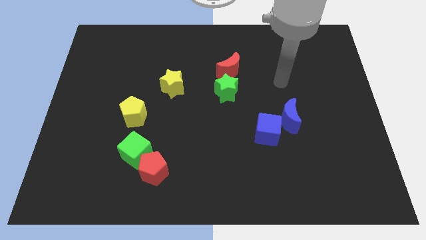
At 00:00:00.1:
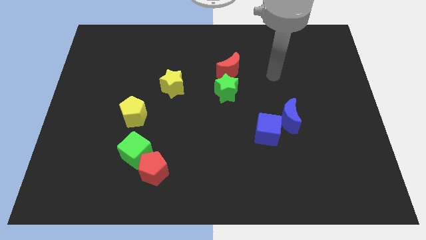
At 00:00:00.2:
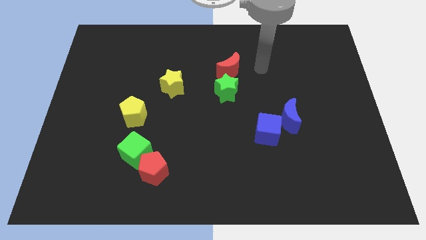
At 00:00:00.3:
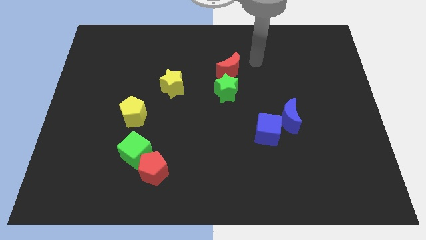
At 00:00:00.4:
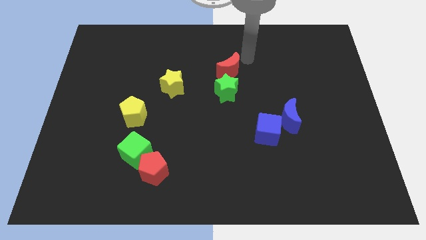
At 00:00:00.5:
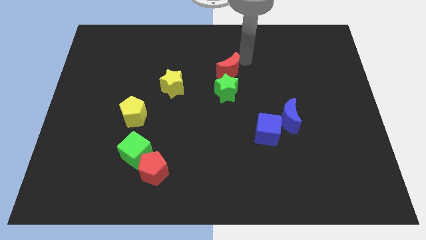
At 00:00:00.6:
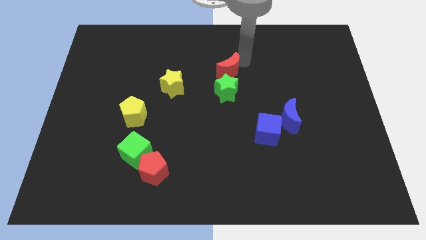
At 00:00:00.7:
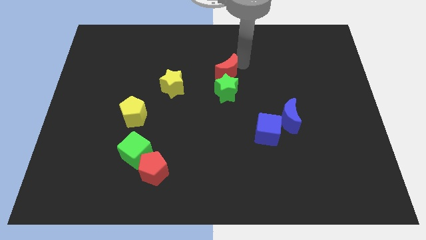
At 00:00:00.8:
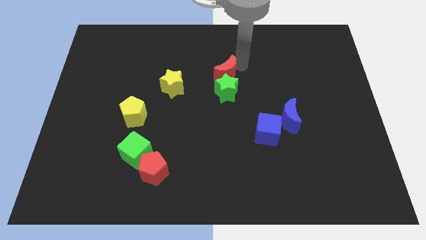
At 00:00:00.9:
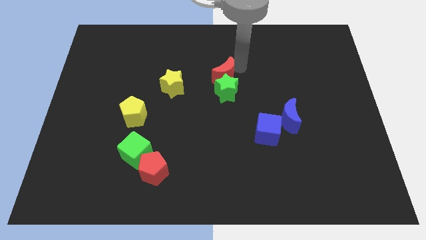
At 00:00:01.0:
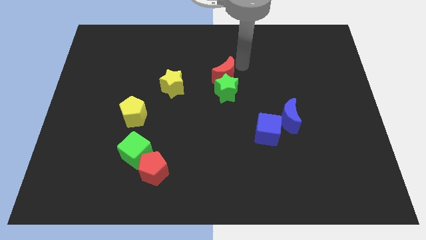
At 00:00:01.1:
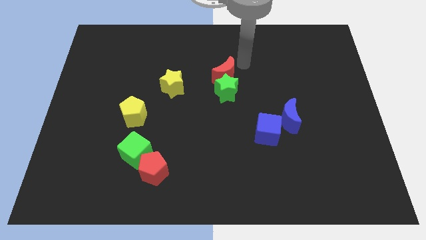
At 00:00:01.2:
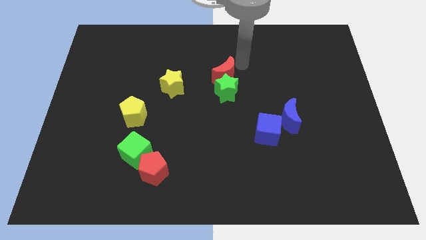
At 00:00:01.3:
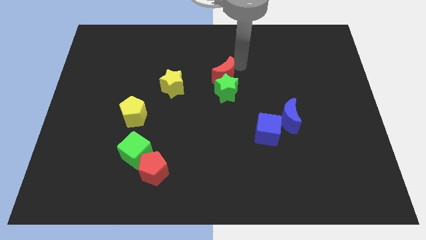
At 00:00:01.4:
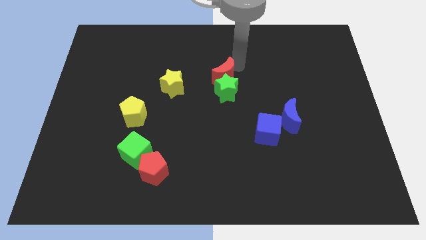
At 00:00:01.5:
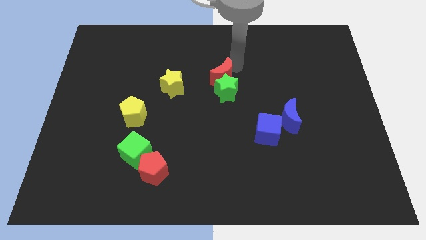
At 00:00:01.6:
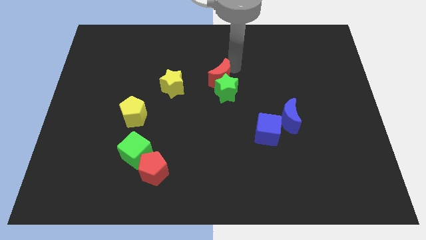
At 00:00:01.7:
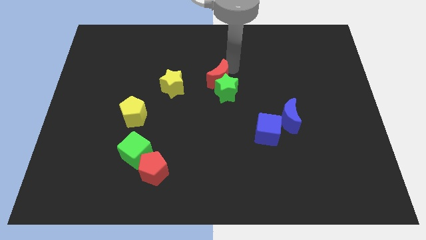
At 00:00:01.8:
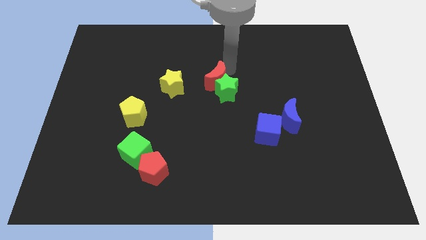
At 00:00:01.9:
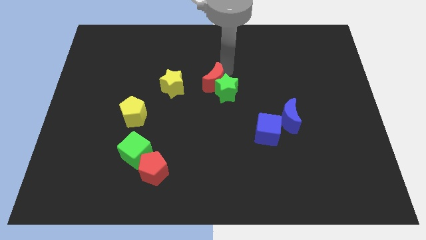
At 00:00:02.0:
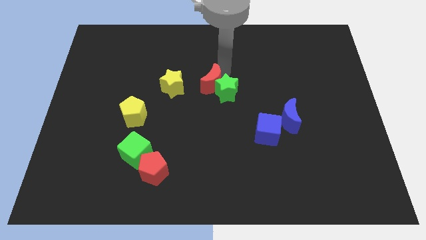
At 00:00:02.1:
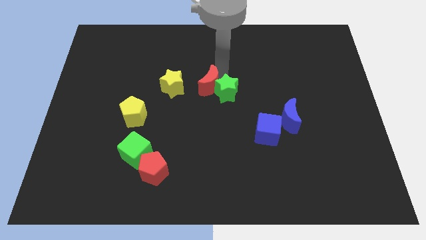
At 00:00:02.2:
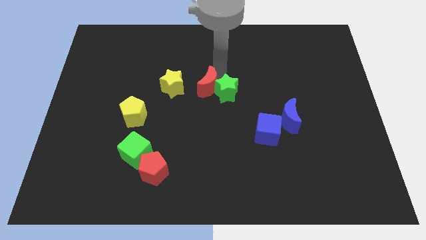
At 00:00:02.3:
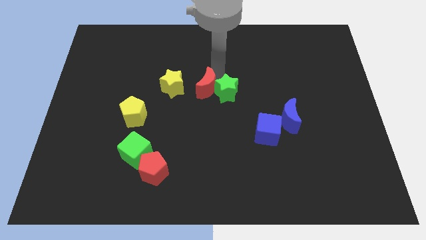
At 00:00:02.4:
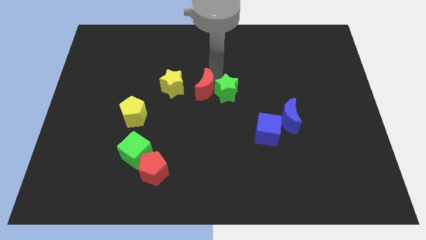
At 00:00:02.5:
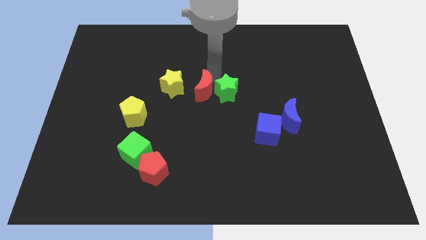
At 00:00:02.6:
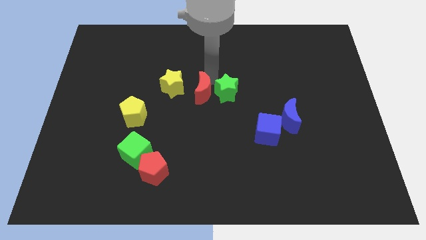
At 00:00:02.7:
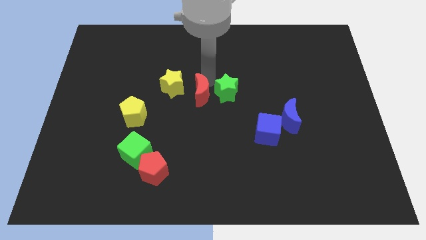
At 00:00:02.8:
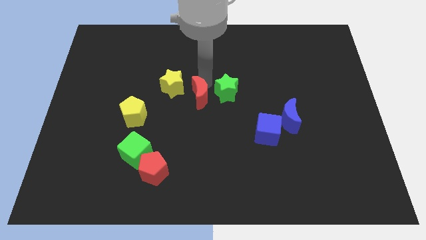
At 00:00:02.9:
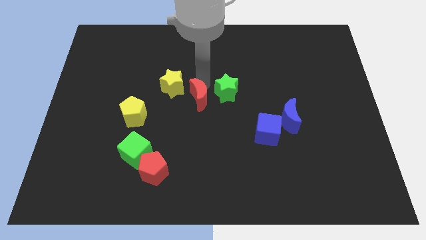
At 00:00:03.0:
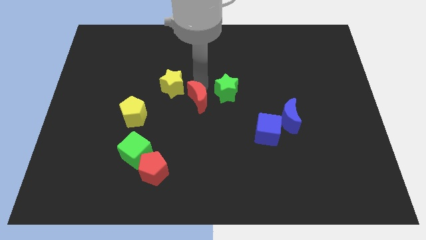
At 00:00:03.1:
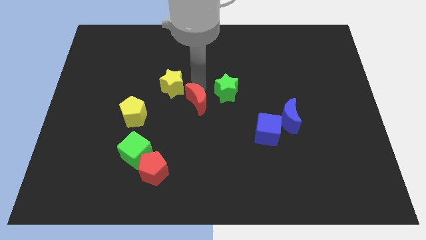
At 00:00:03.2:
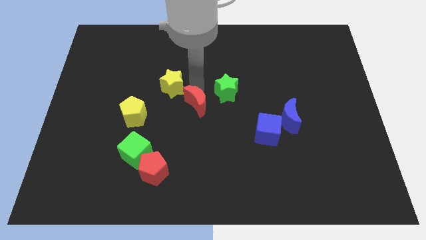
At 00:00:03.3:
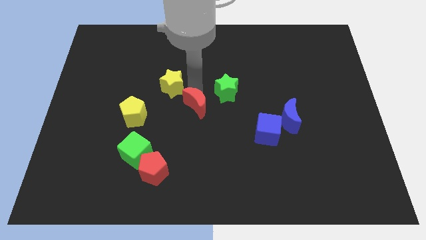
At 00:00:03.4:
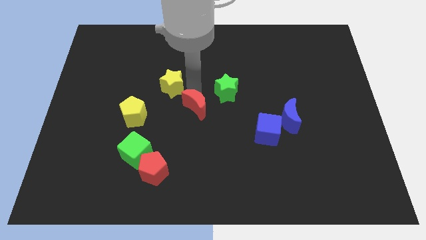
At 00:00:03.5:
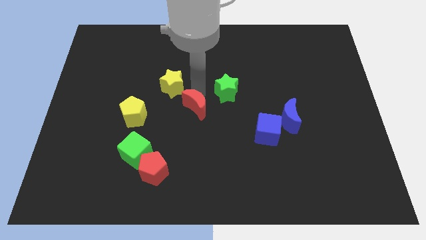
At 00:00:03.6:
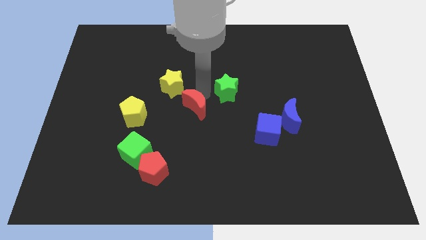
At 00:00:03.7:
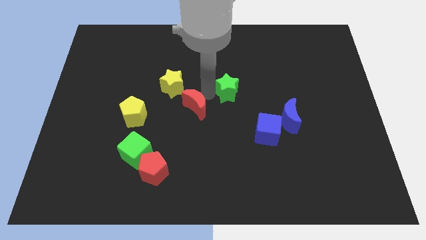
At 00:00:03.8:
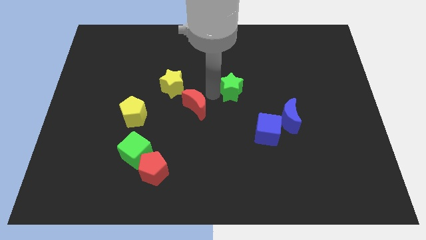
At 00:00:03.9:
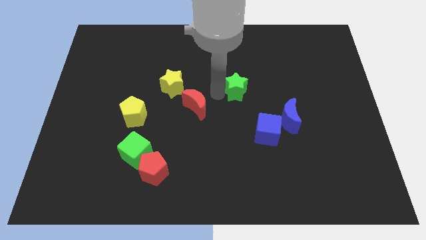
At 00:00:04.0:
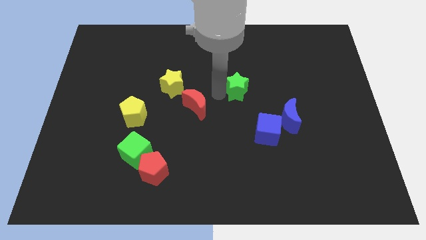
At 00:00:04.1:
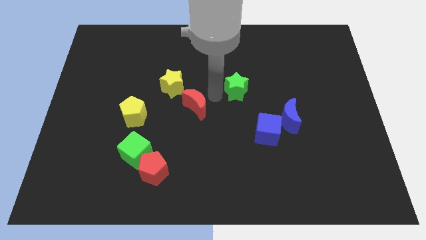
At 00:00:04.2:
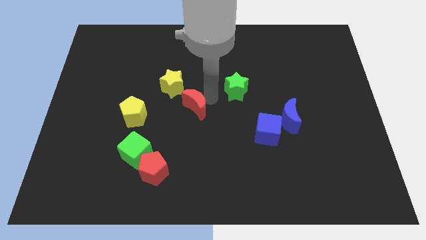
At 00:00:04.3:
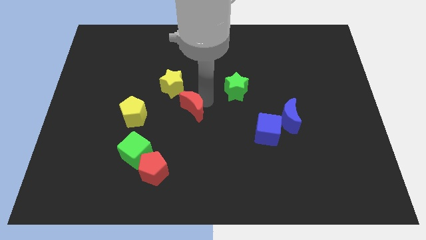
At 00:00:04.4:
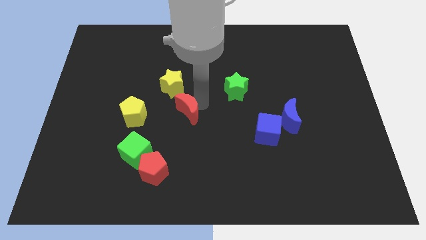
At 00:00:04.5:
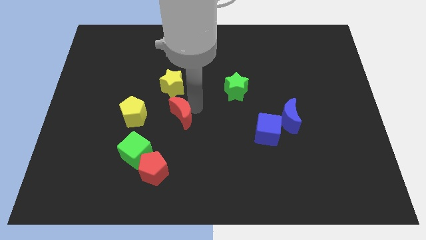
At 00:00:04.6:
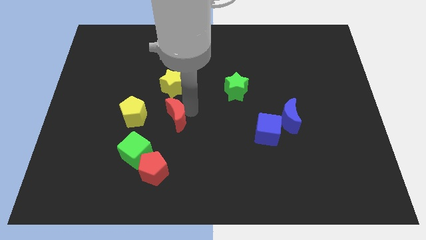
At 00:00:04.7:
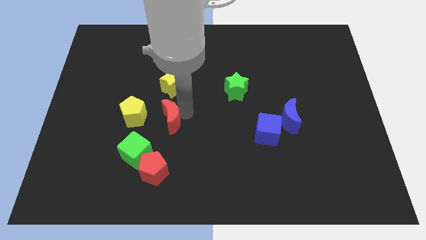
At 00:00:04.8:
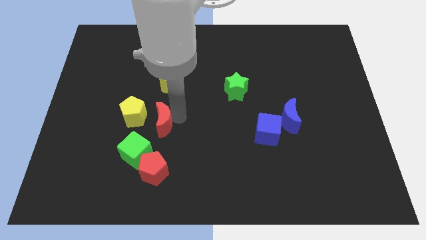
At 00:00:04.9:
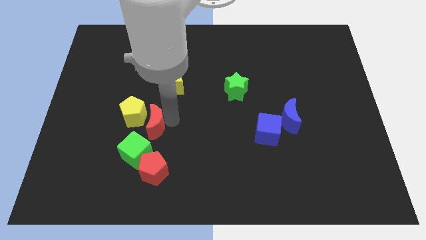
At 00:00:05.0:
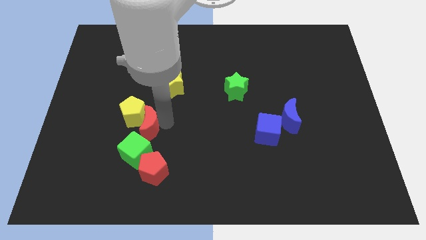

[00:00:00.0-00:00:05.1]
put the red moon to the bottom of the yellow pentagon

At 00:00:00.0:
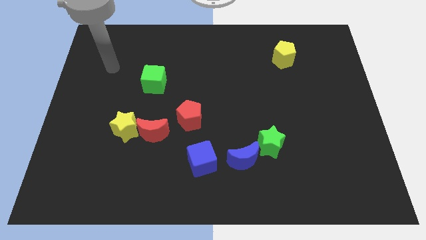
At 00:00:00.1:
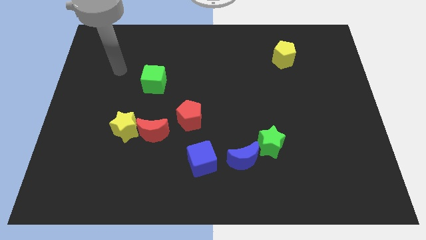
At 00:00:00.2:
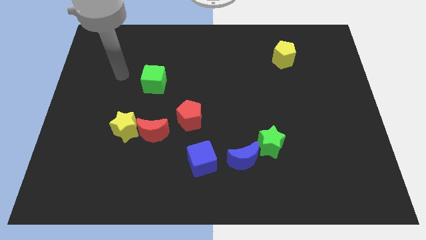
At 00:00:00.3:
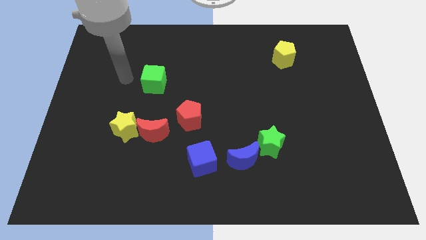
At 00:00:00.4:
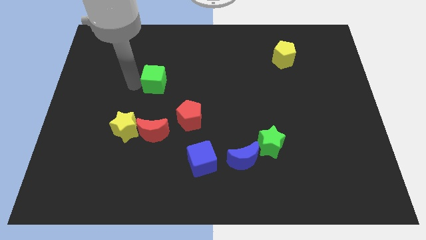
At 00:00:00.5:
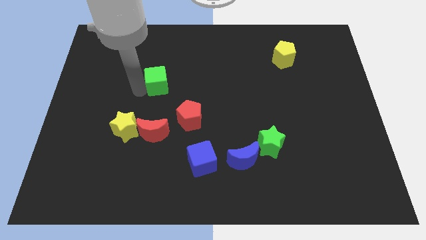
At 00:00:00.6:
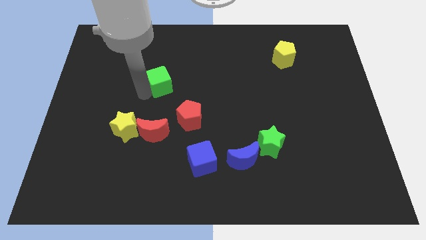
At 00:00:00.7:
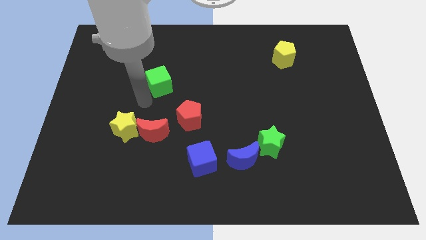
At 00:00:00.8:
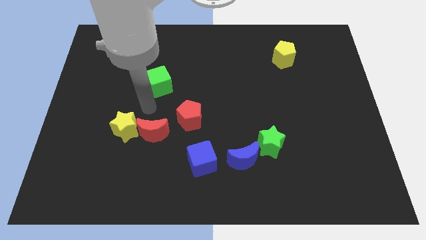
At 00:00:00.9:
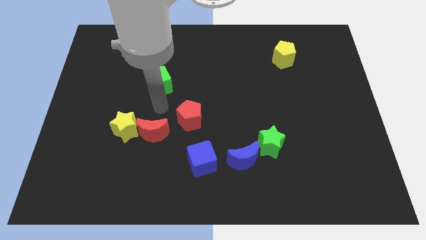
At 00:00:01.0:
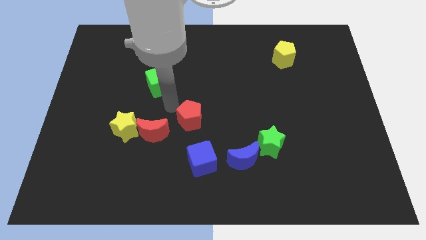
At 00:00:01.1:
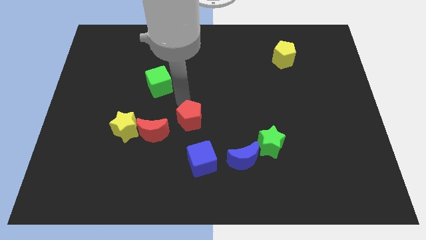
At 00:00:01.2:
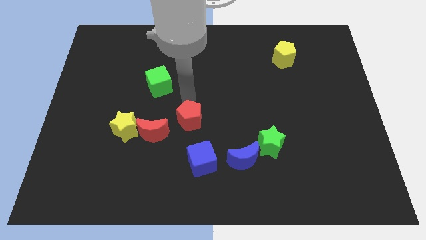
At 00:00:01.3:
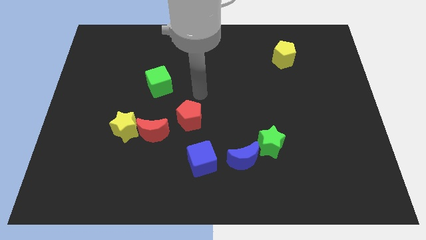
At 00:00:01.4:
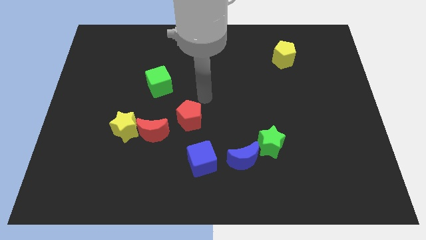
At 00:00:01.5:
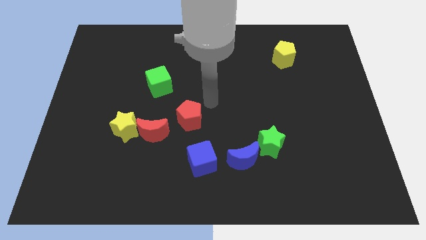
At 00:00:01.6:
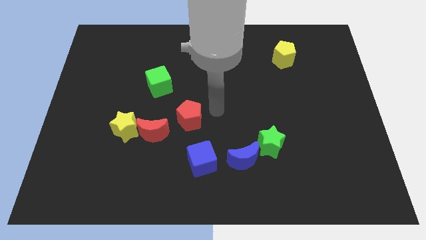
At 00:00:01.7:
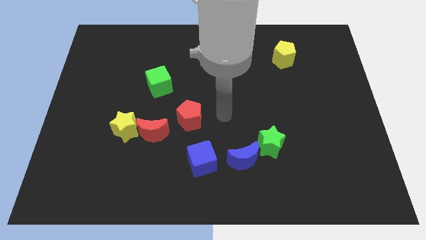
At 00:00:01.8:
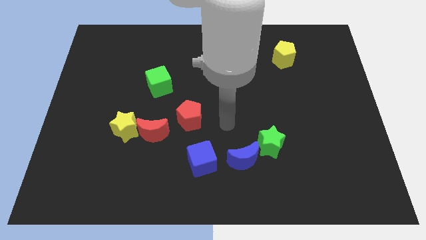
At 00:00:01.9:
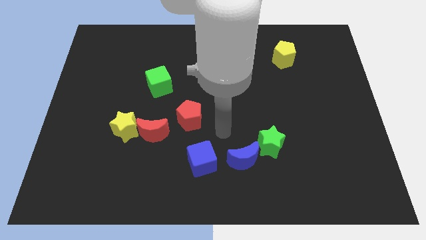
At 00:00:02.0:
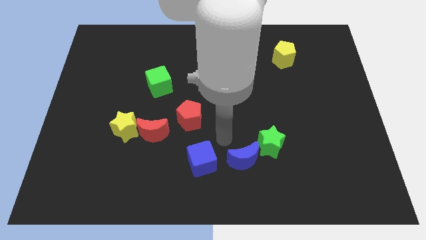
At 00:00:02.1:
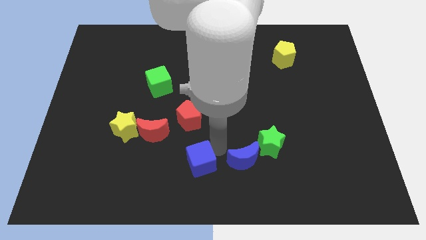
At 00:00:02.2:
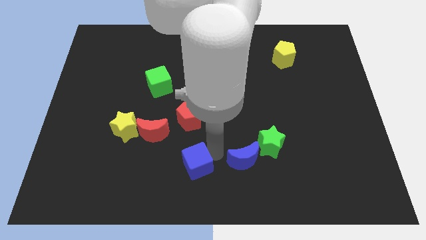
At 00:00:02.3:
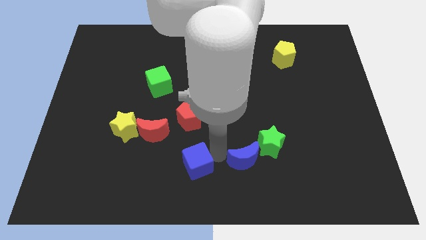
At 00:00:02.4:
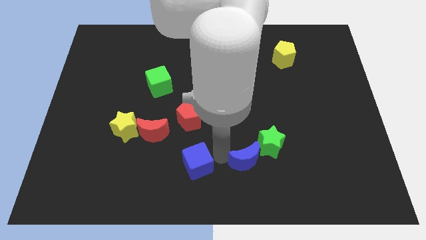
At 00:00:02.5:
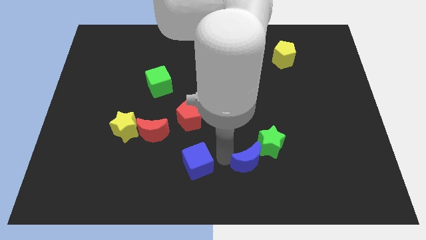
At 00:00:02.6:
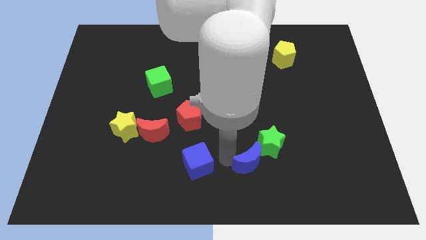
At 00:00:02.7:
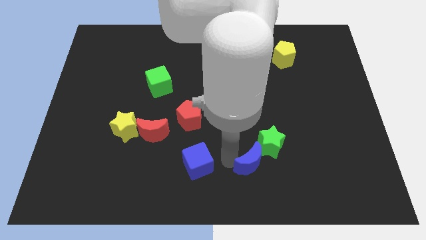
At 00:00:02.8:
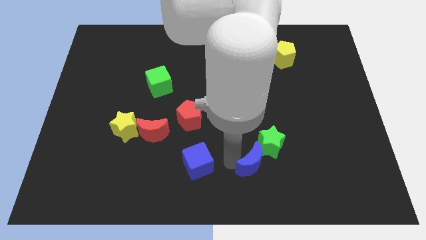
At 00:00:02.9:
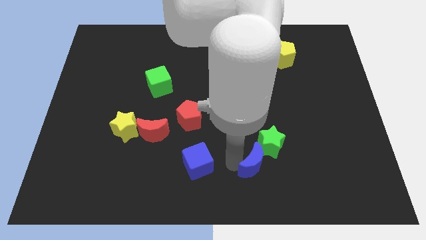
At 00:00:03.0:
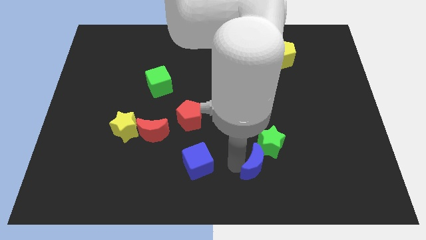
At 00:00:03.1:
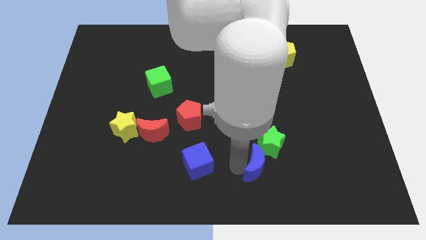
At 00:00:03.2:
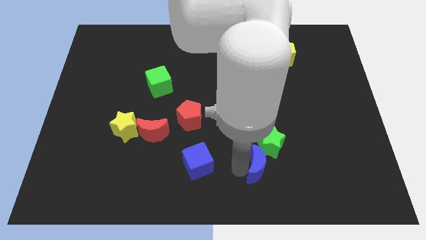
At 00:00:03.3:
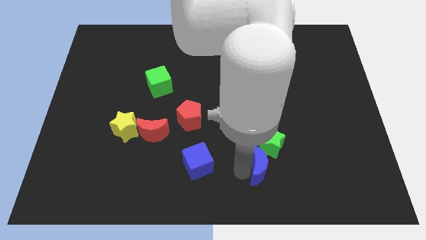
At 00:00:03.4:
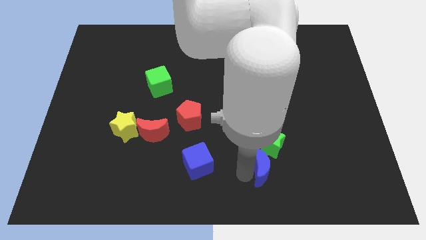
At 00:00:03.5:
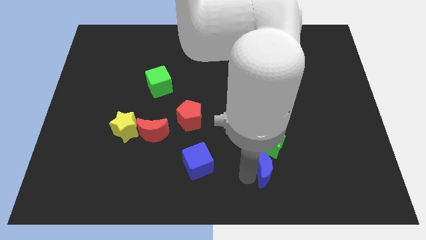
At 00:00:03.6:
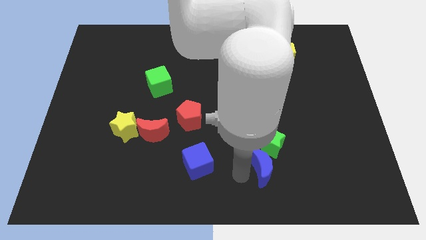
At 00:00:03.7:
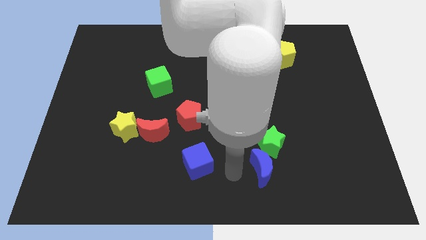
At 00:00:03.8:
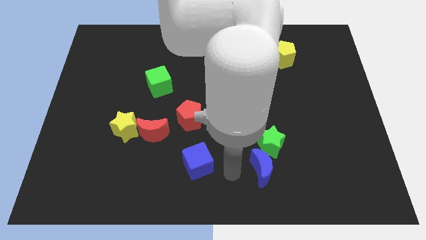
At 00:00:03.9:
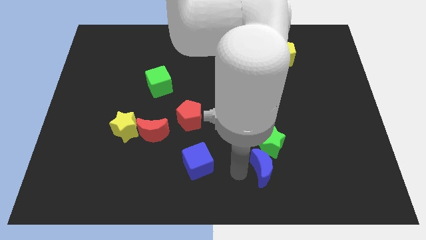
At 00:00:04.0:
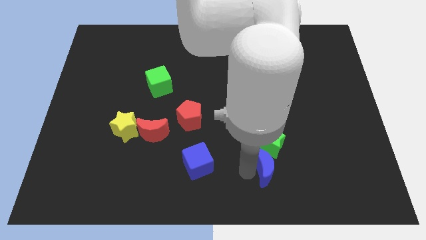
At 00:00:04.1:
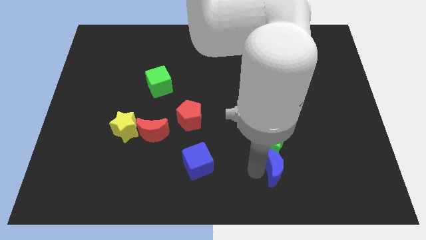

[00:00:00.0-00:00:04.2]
slide the blue moon to the bottom right of the green star
